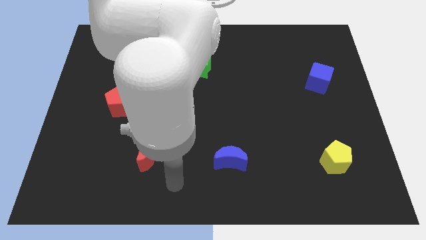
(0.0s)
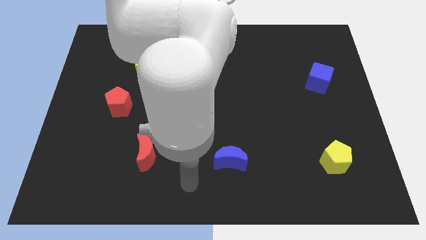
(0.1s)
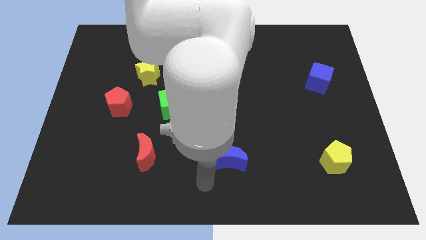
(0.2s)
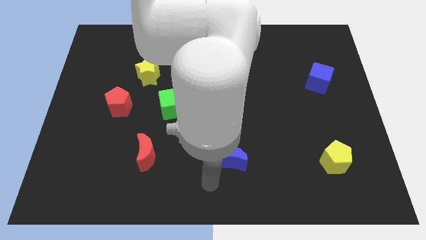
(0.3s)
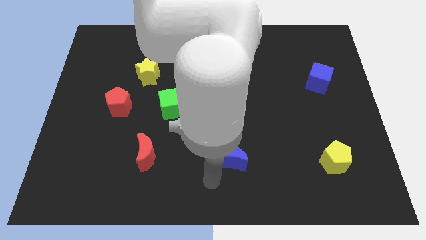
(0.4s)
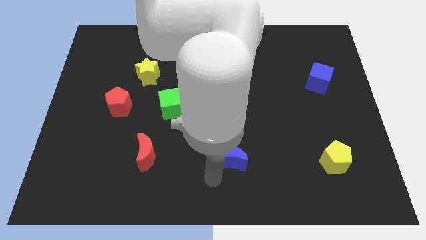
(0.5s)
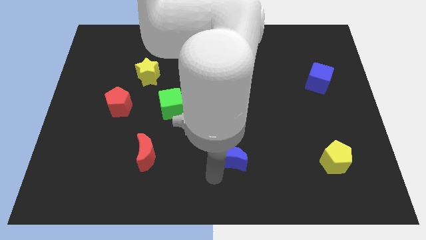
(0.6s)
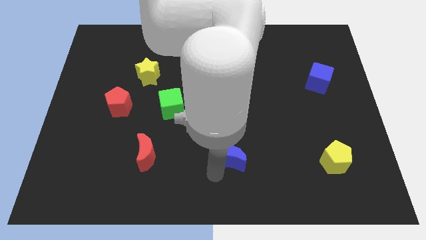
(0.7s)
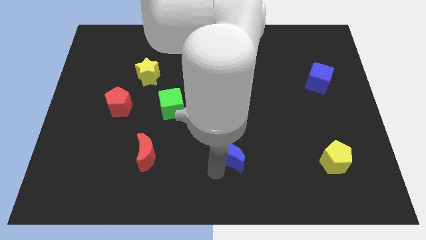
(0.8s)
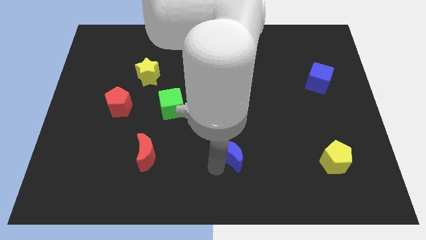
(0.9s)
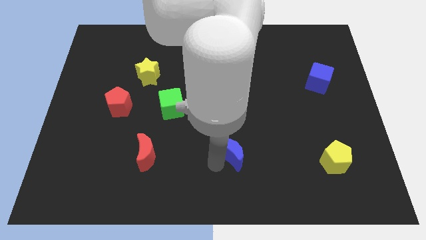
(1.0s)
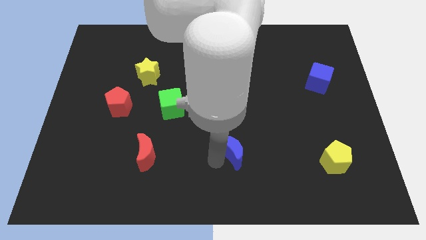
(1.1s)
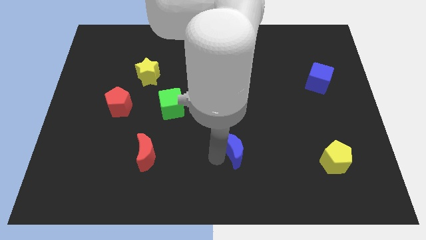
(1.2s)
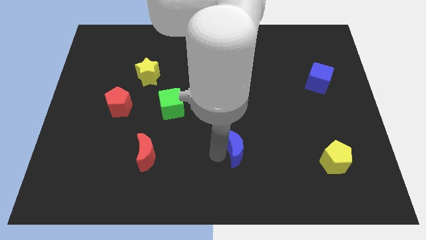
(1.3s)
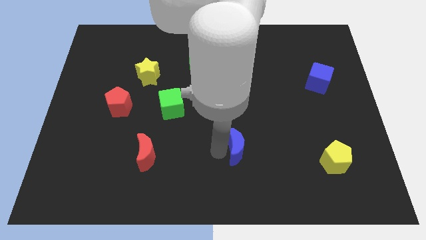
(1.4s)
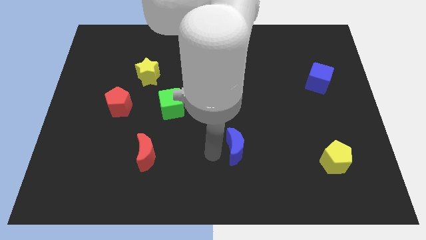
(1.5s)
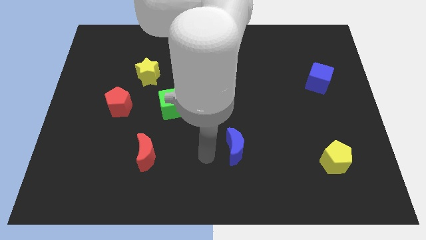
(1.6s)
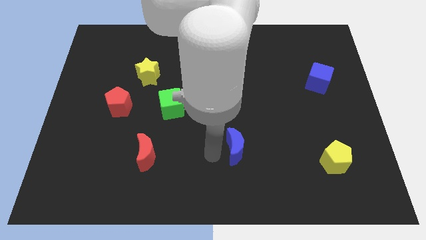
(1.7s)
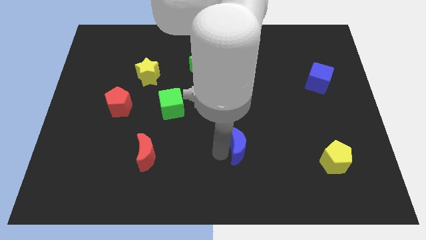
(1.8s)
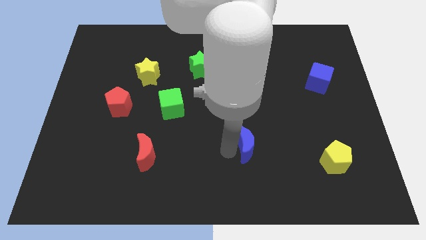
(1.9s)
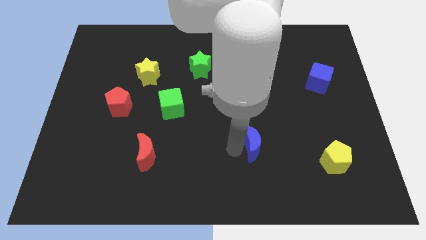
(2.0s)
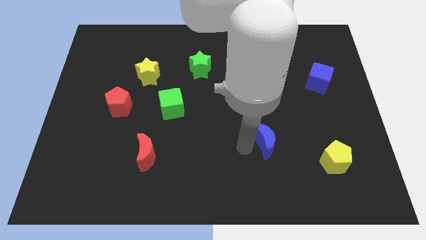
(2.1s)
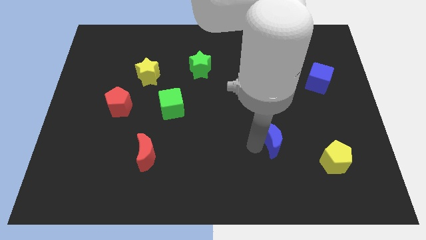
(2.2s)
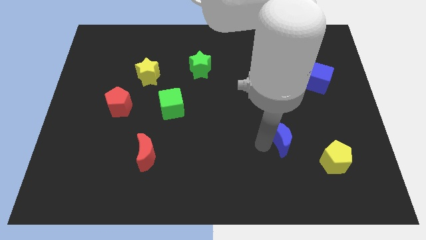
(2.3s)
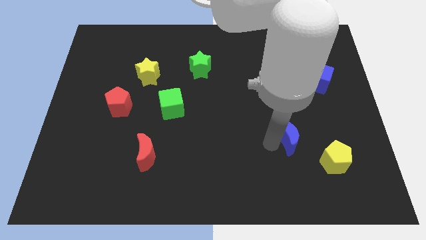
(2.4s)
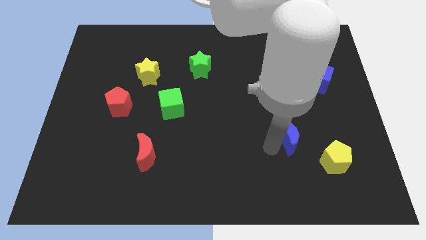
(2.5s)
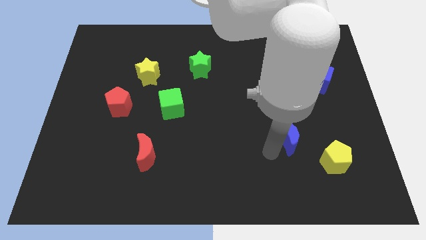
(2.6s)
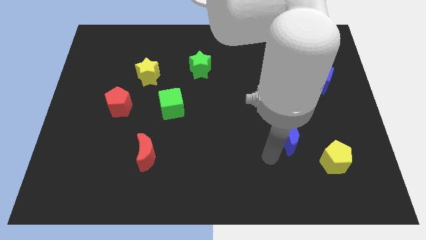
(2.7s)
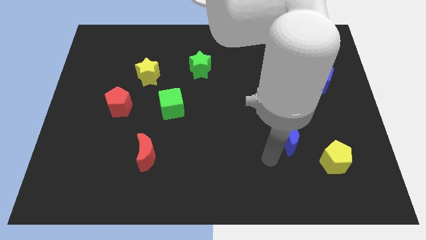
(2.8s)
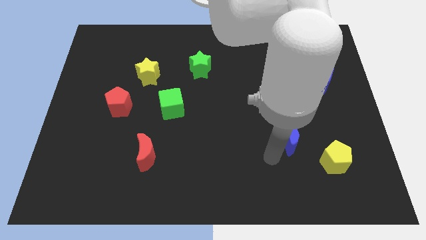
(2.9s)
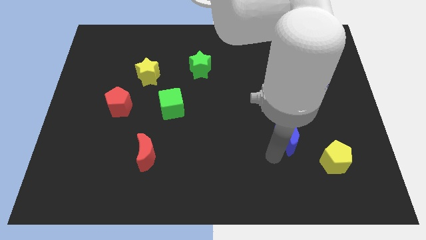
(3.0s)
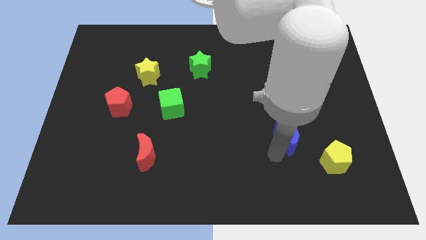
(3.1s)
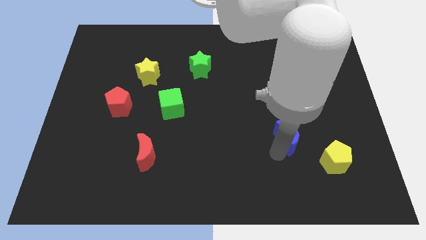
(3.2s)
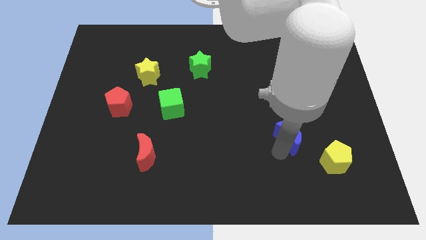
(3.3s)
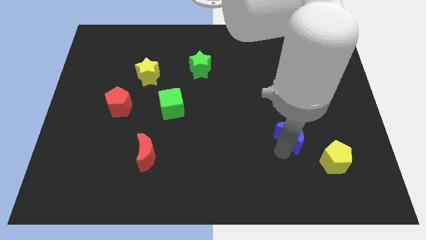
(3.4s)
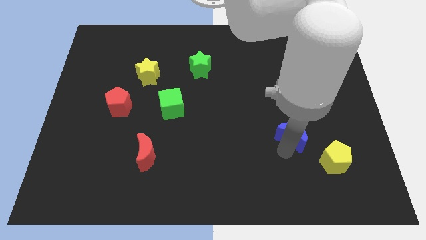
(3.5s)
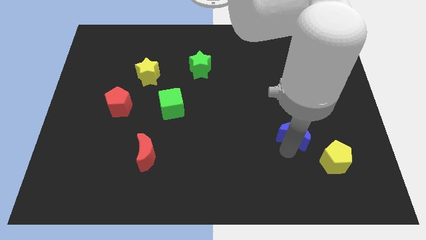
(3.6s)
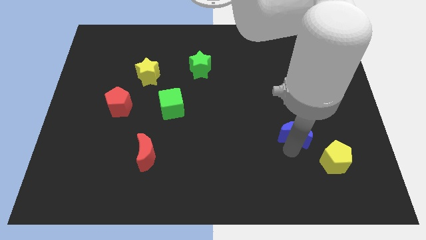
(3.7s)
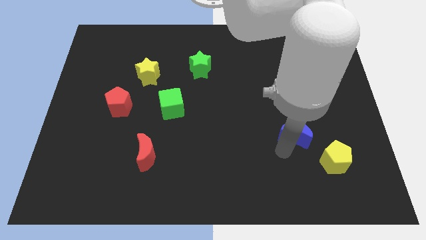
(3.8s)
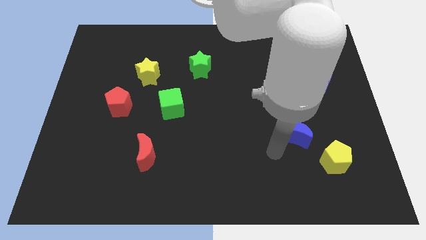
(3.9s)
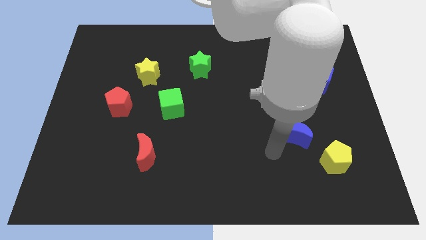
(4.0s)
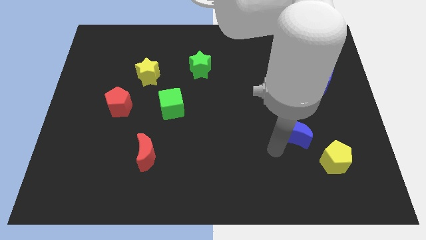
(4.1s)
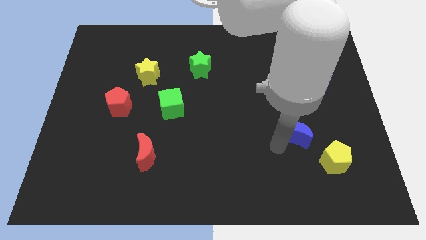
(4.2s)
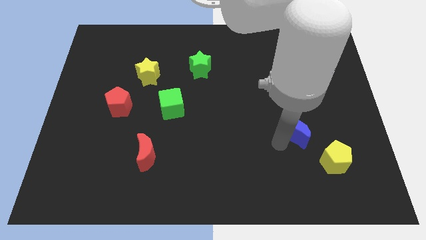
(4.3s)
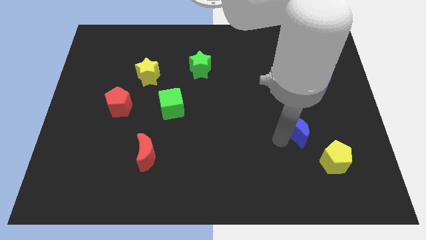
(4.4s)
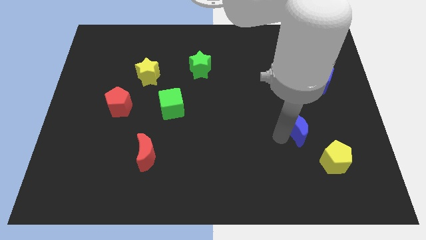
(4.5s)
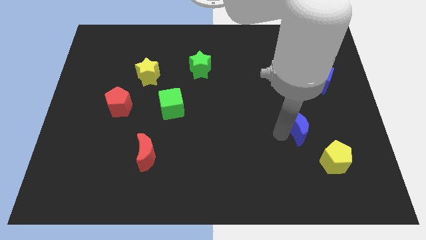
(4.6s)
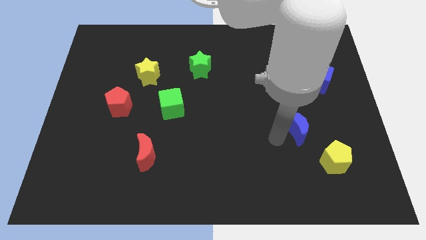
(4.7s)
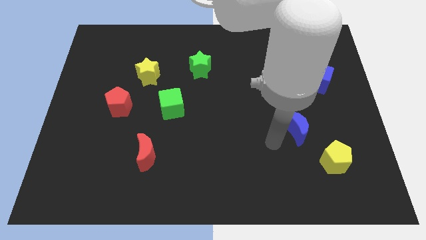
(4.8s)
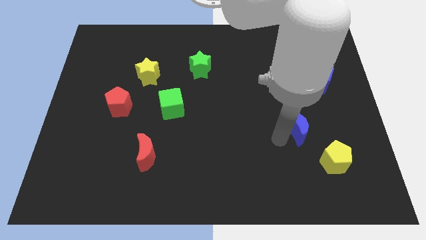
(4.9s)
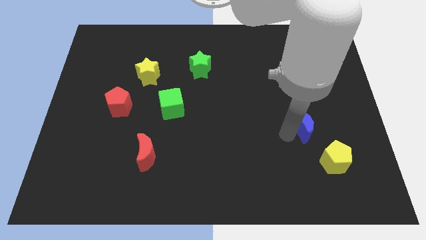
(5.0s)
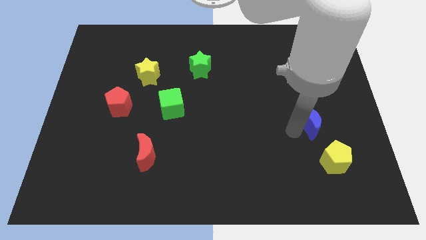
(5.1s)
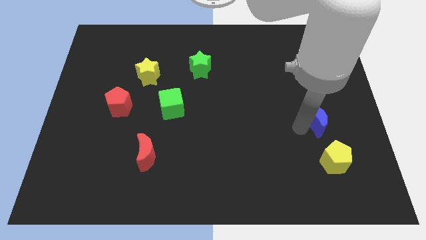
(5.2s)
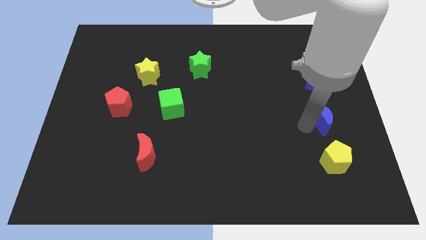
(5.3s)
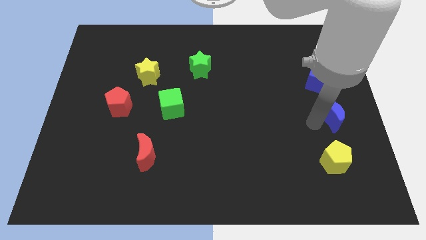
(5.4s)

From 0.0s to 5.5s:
put the blue moon to the center right

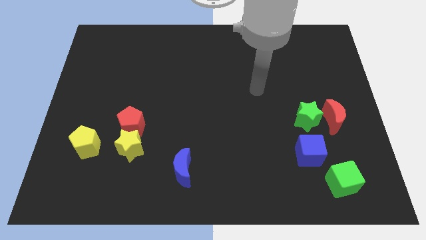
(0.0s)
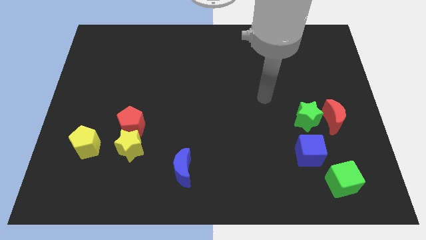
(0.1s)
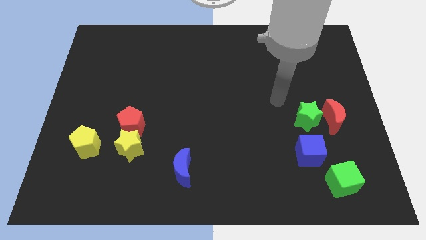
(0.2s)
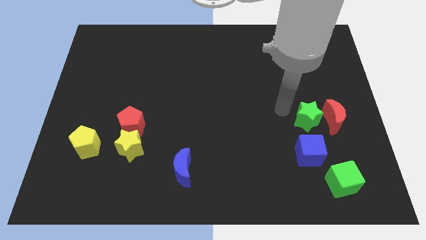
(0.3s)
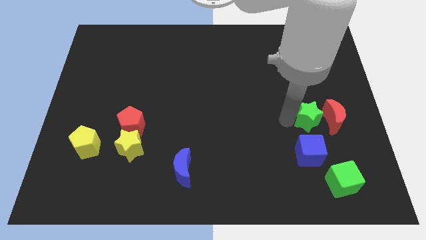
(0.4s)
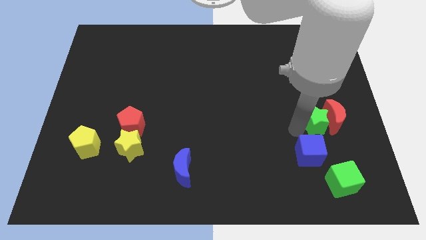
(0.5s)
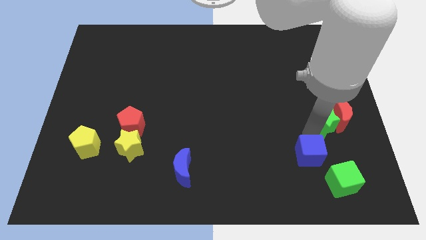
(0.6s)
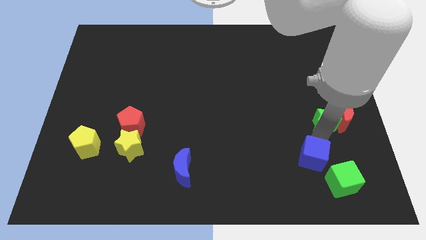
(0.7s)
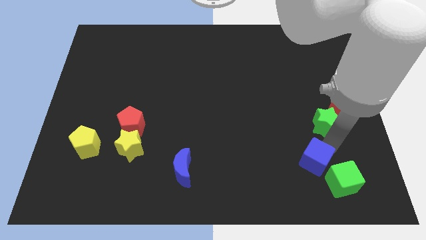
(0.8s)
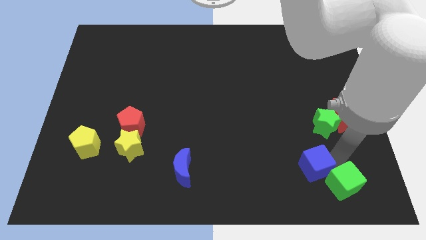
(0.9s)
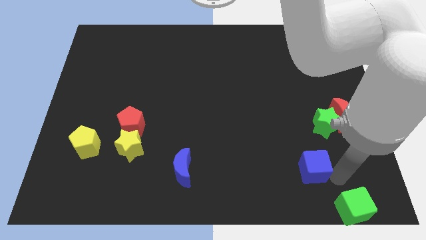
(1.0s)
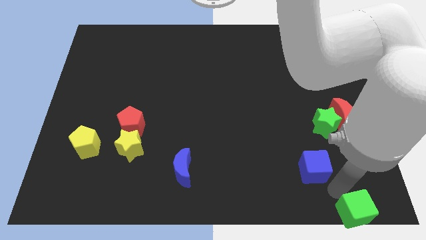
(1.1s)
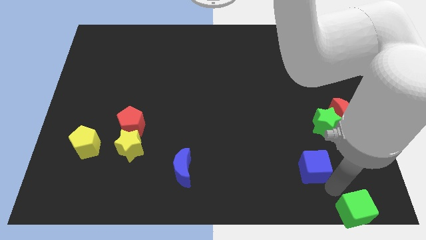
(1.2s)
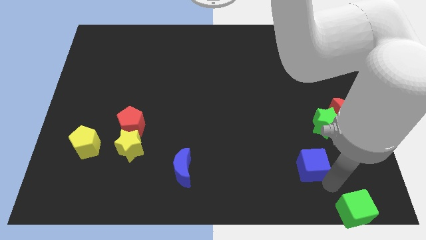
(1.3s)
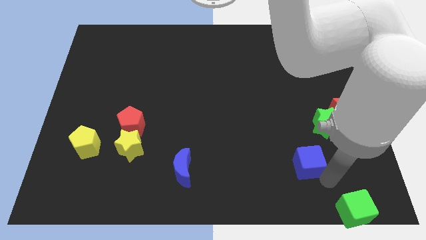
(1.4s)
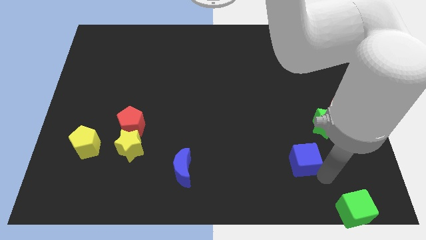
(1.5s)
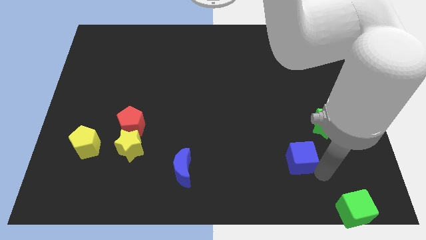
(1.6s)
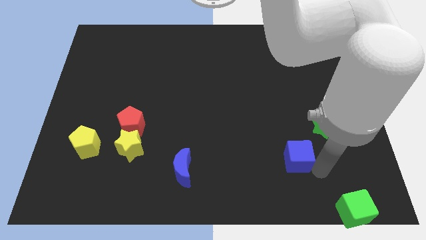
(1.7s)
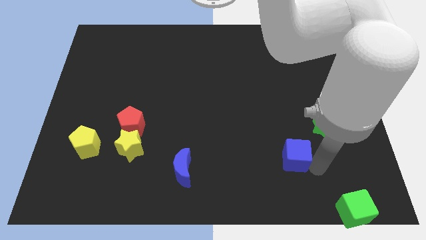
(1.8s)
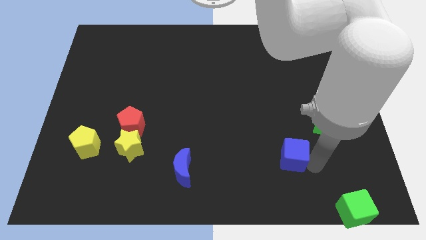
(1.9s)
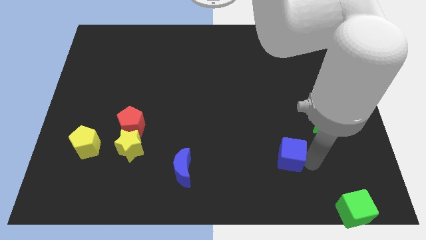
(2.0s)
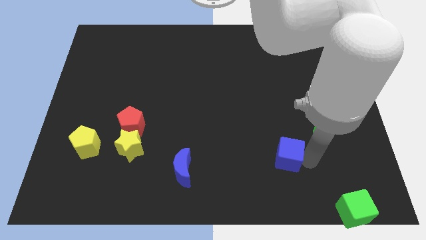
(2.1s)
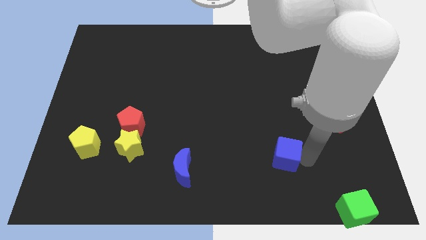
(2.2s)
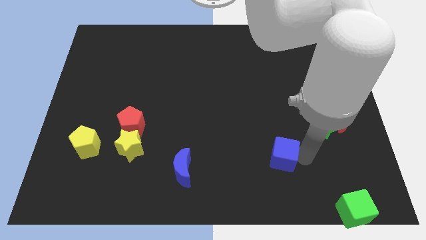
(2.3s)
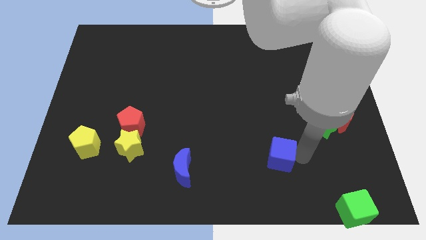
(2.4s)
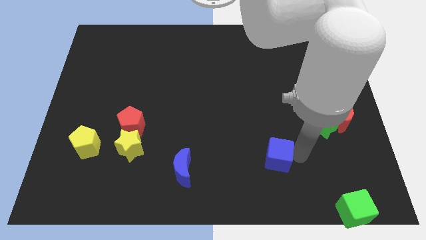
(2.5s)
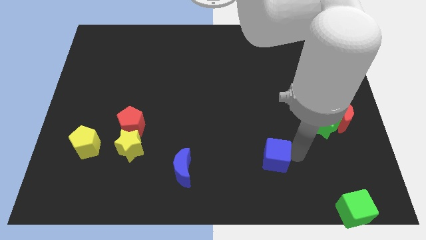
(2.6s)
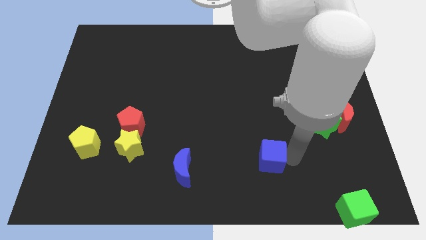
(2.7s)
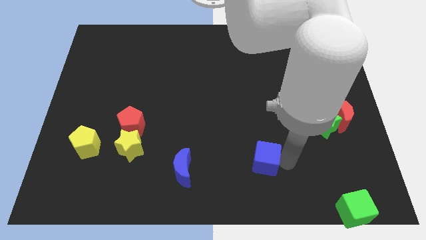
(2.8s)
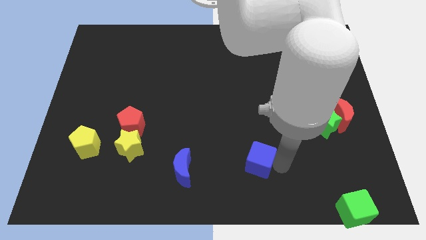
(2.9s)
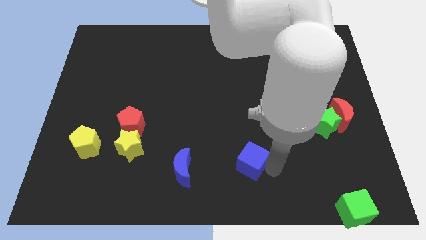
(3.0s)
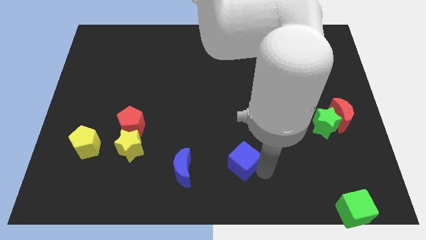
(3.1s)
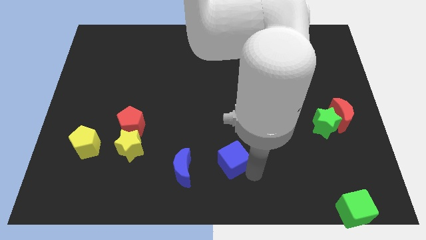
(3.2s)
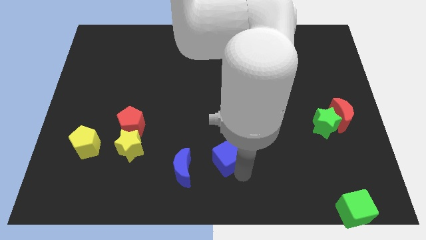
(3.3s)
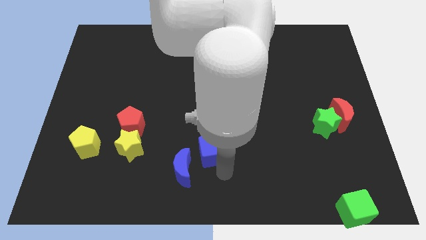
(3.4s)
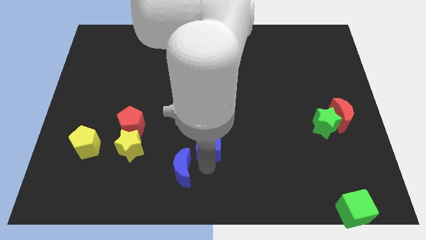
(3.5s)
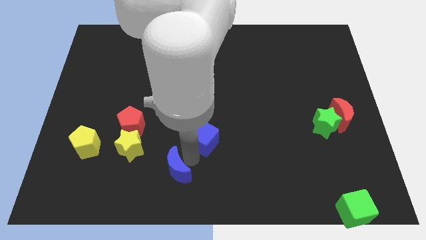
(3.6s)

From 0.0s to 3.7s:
put the blue cube to the middle of the board
